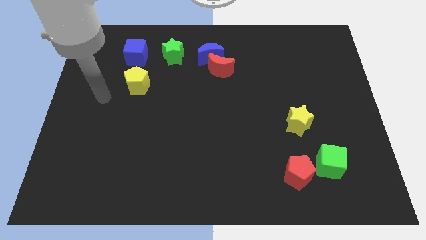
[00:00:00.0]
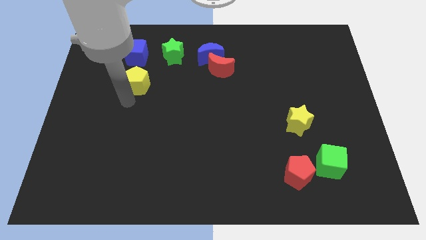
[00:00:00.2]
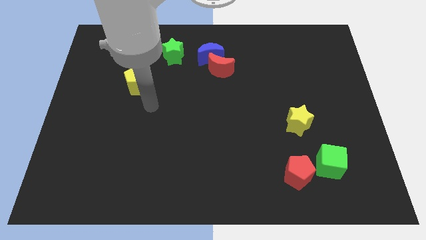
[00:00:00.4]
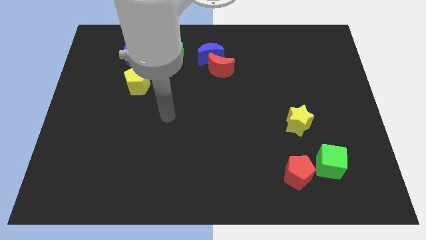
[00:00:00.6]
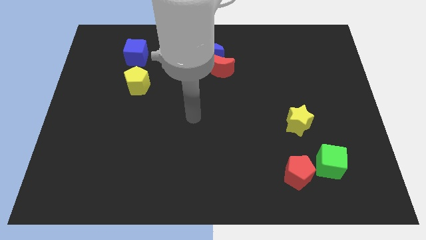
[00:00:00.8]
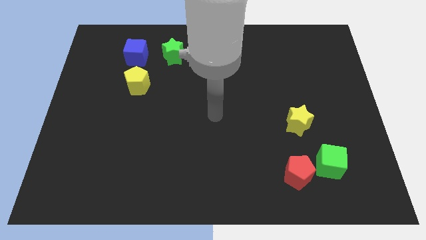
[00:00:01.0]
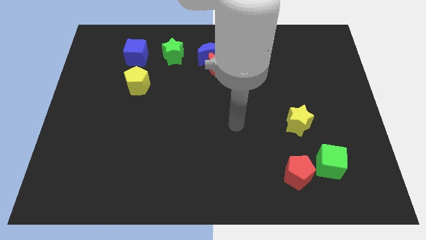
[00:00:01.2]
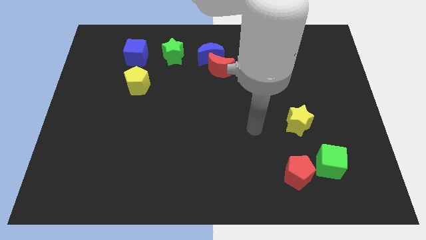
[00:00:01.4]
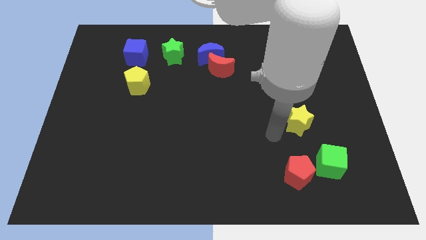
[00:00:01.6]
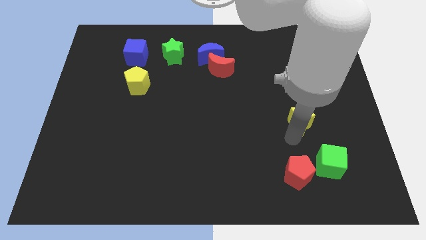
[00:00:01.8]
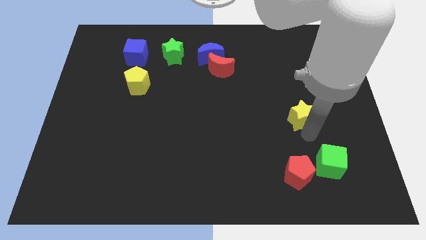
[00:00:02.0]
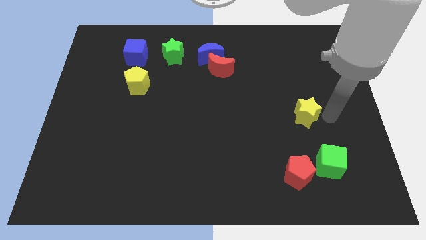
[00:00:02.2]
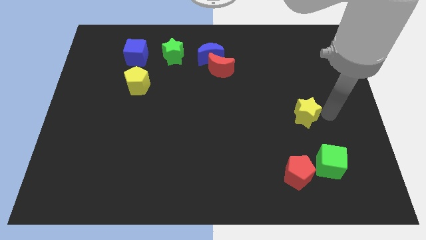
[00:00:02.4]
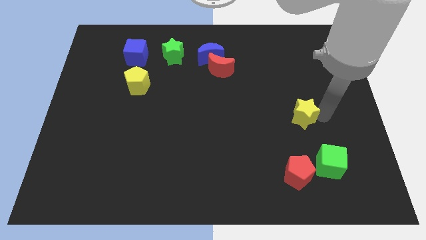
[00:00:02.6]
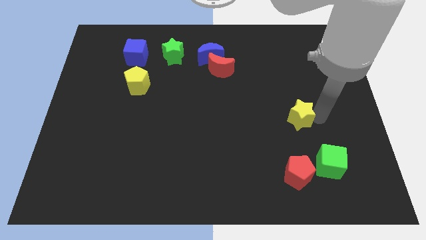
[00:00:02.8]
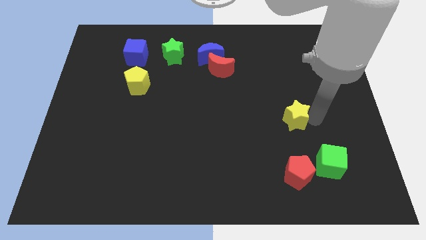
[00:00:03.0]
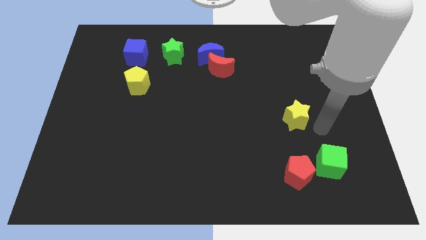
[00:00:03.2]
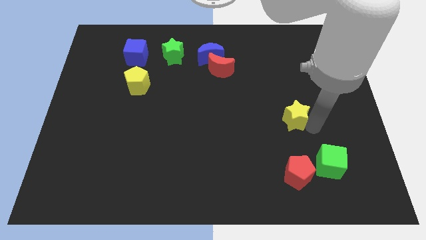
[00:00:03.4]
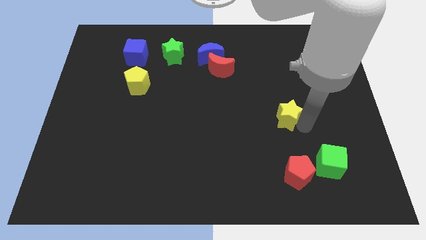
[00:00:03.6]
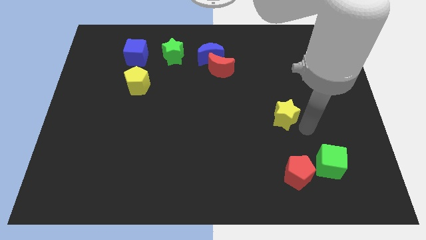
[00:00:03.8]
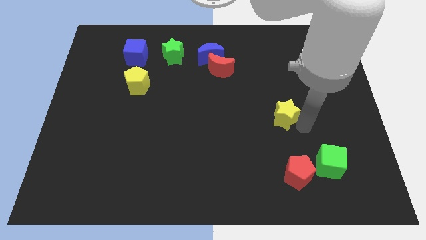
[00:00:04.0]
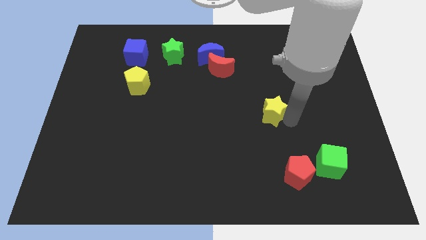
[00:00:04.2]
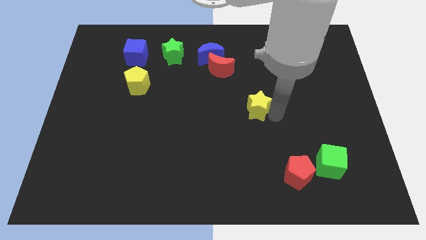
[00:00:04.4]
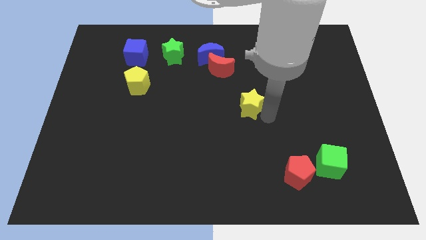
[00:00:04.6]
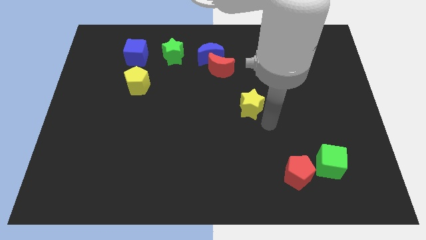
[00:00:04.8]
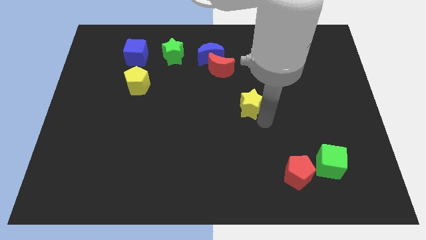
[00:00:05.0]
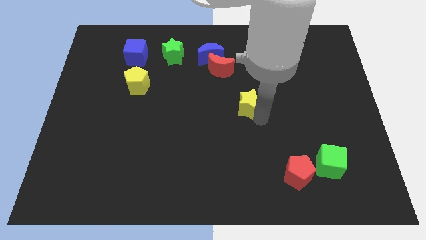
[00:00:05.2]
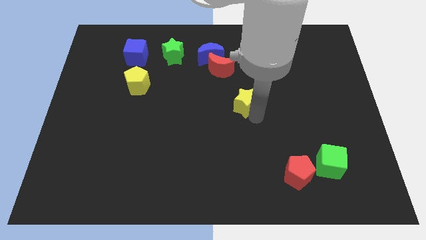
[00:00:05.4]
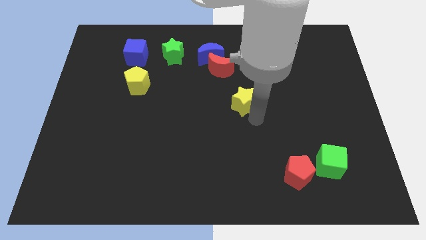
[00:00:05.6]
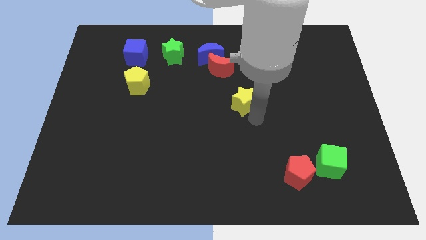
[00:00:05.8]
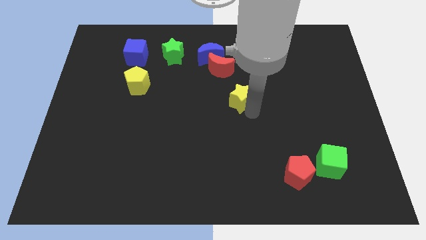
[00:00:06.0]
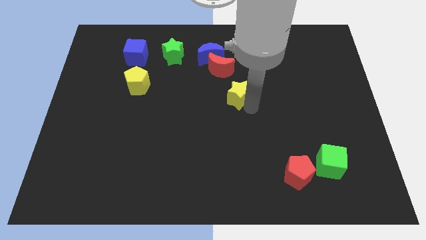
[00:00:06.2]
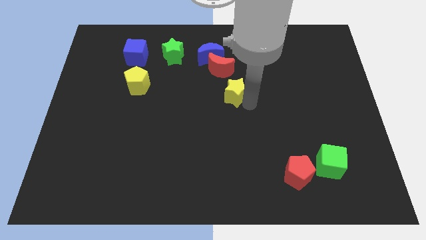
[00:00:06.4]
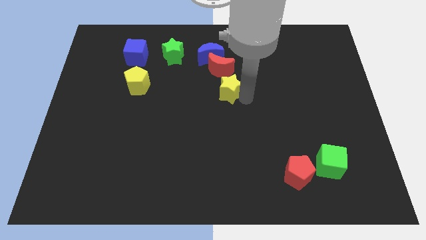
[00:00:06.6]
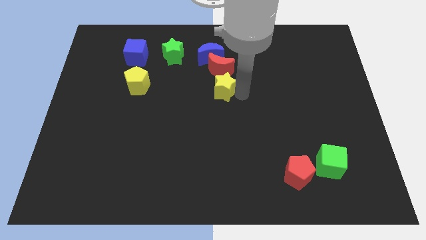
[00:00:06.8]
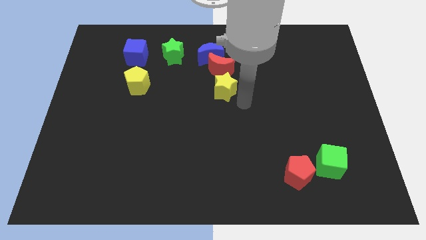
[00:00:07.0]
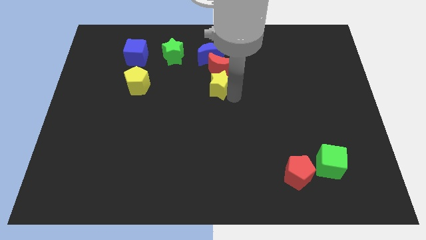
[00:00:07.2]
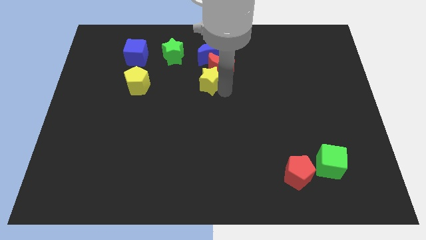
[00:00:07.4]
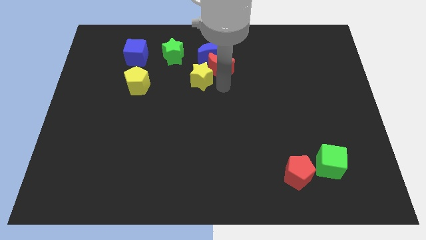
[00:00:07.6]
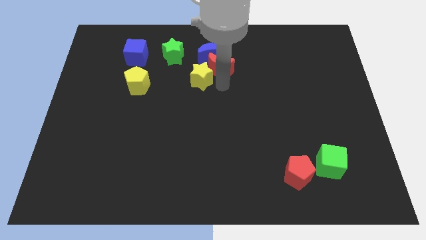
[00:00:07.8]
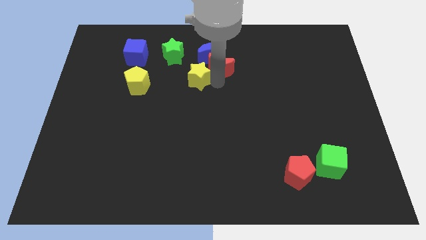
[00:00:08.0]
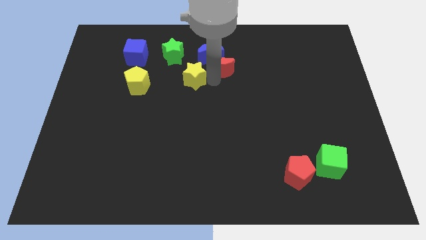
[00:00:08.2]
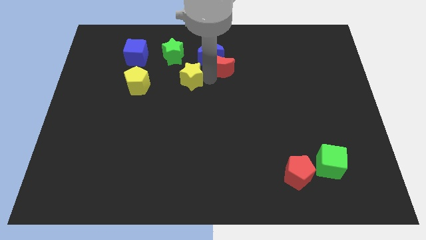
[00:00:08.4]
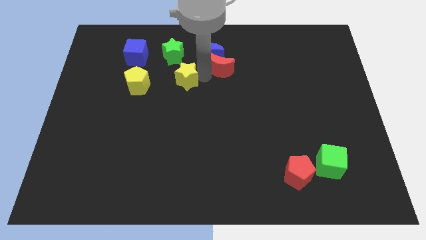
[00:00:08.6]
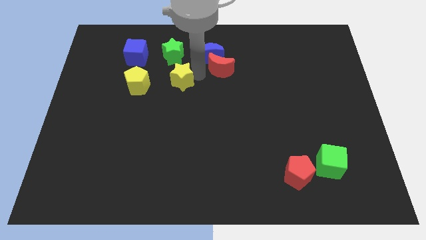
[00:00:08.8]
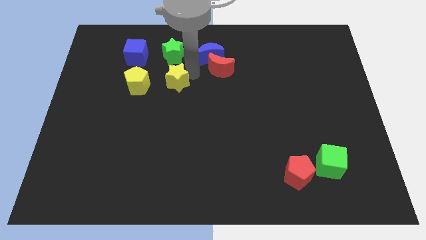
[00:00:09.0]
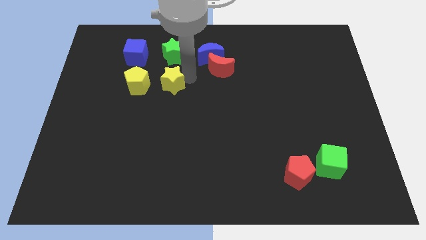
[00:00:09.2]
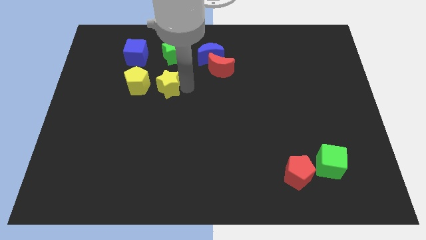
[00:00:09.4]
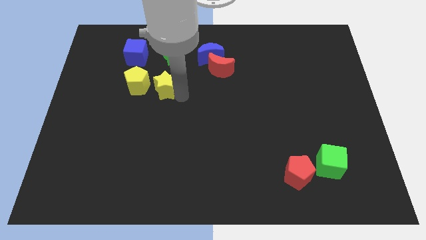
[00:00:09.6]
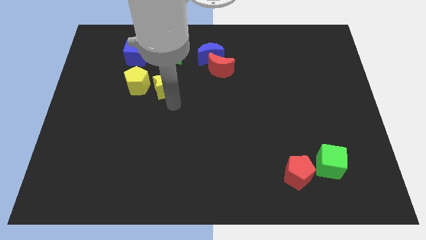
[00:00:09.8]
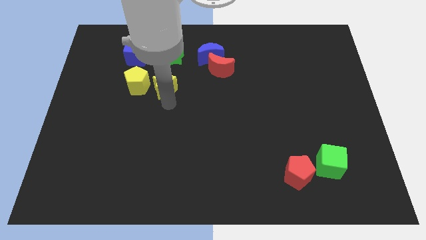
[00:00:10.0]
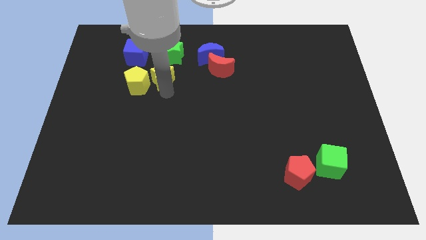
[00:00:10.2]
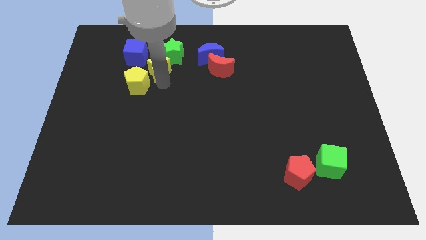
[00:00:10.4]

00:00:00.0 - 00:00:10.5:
push the yellow star to the left of the blue moon

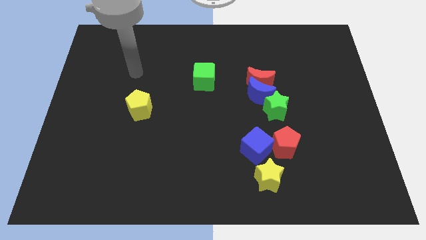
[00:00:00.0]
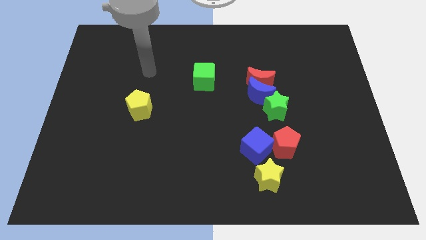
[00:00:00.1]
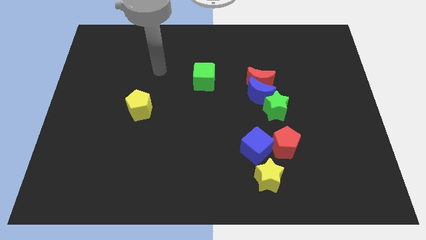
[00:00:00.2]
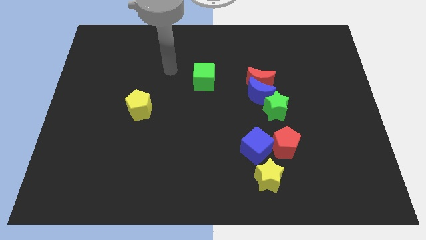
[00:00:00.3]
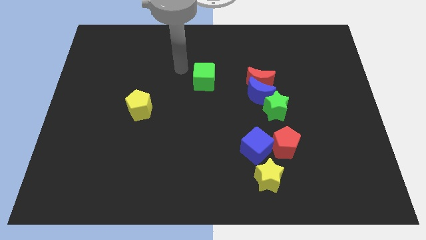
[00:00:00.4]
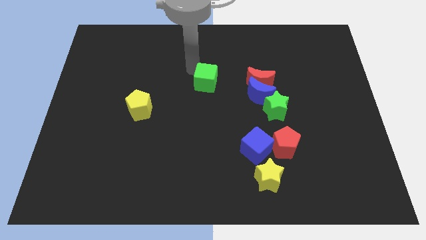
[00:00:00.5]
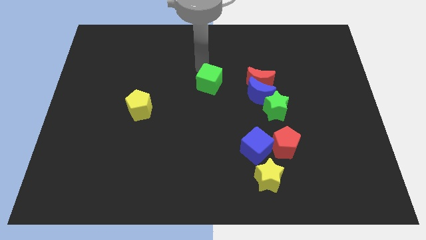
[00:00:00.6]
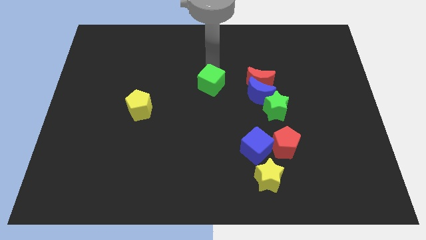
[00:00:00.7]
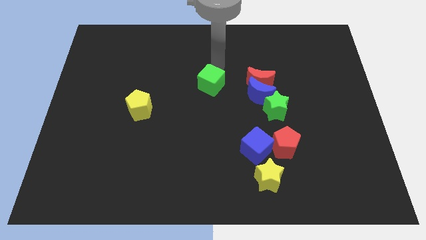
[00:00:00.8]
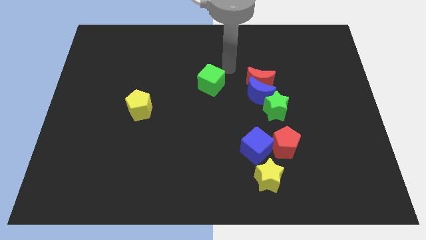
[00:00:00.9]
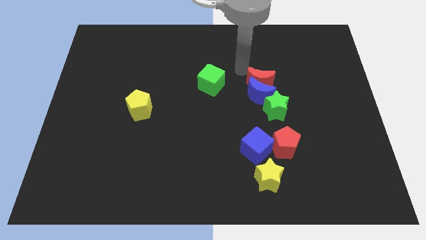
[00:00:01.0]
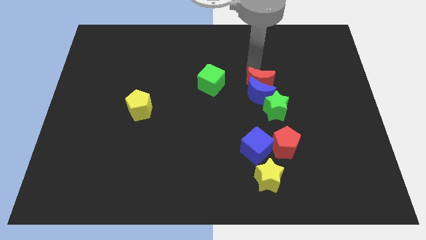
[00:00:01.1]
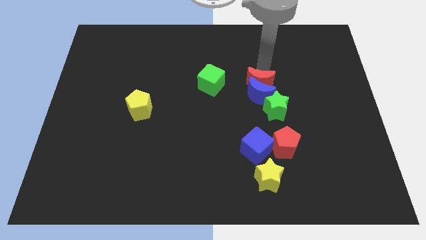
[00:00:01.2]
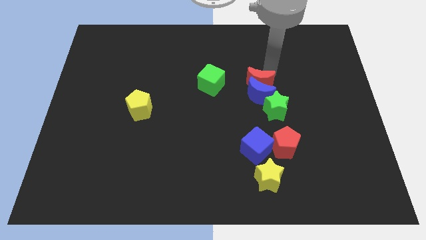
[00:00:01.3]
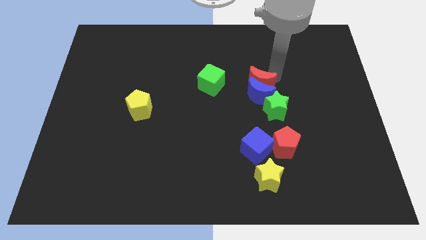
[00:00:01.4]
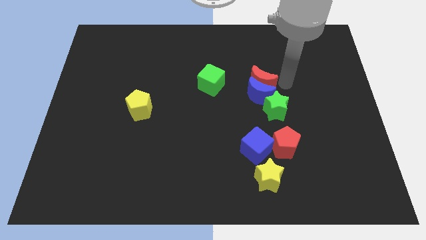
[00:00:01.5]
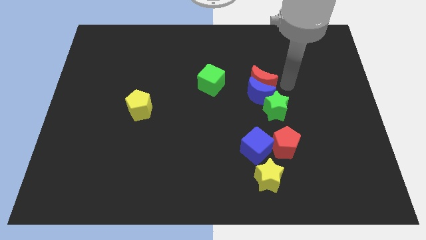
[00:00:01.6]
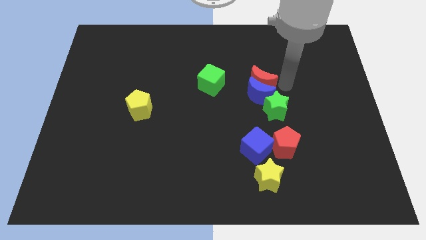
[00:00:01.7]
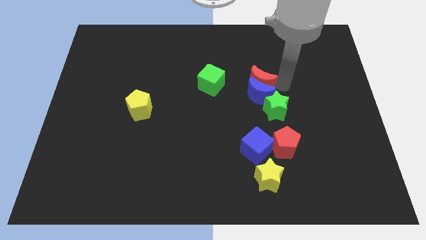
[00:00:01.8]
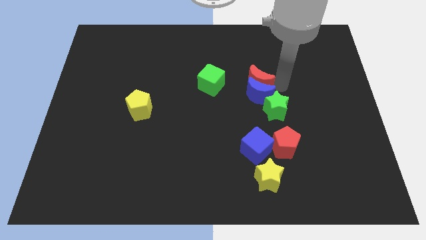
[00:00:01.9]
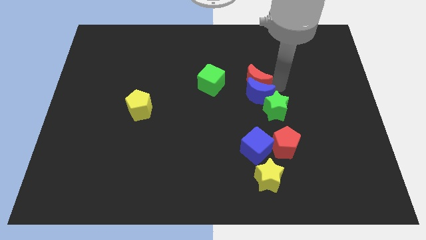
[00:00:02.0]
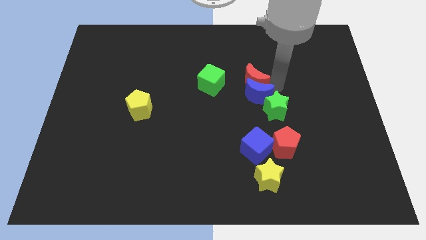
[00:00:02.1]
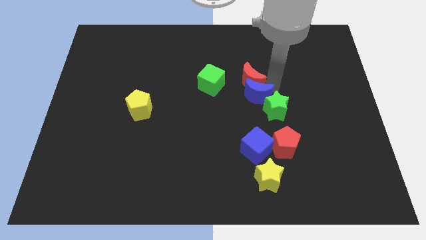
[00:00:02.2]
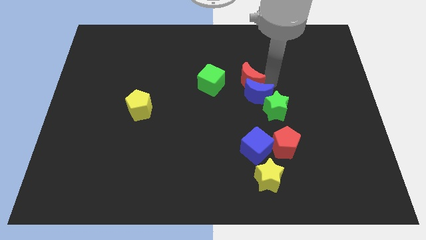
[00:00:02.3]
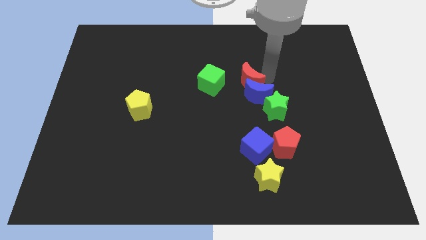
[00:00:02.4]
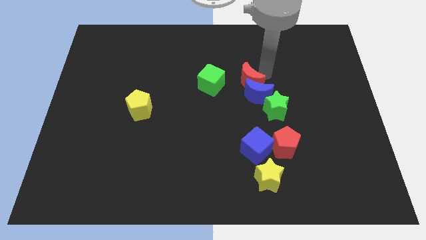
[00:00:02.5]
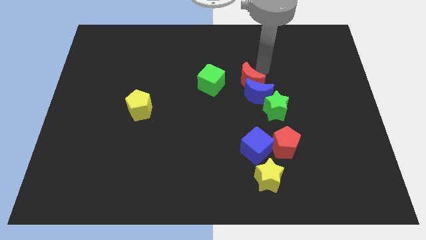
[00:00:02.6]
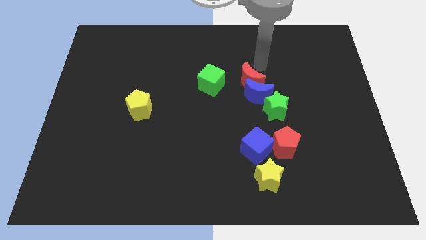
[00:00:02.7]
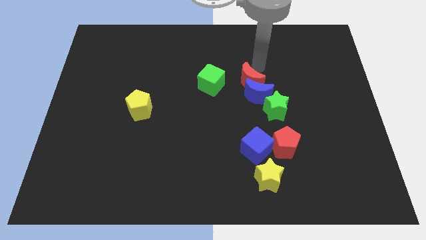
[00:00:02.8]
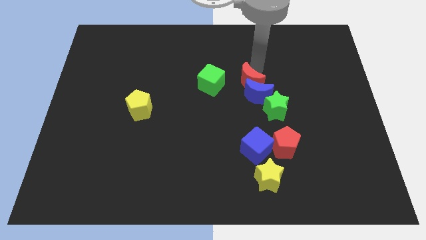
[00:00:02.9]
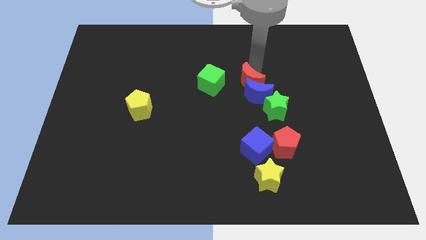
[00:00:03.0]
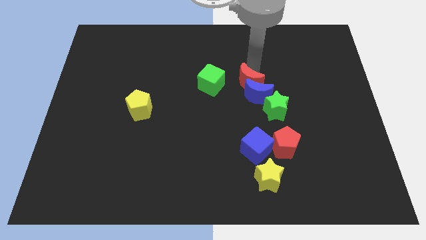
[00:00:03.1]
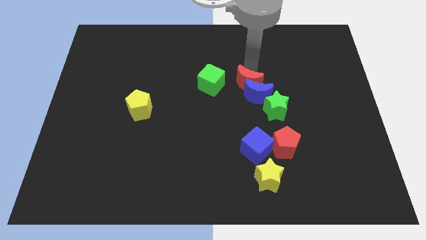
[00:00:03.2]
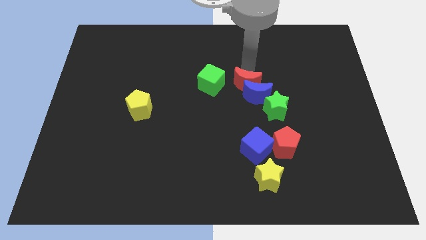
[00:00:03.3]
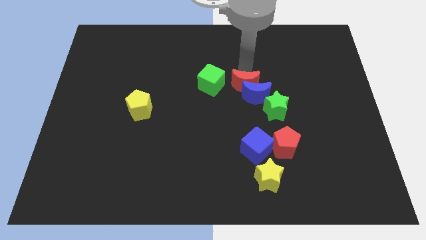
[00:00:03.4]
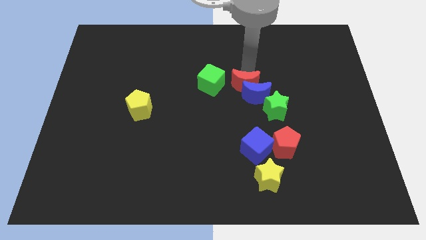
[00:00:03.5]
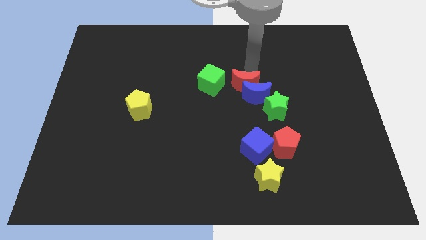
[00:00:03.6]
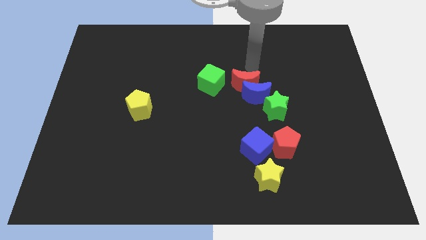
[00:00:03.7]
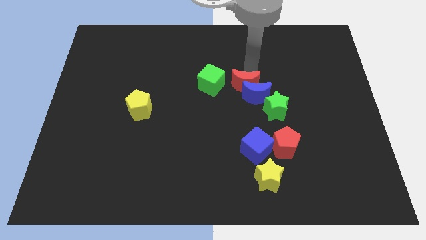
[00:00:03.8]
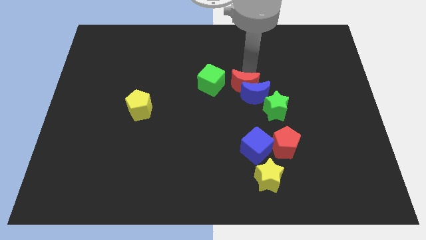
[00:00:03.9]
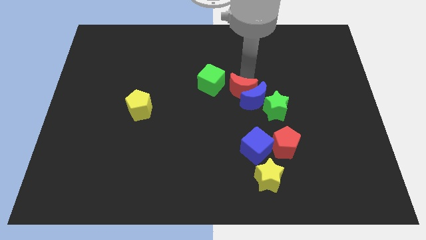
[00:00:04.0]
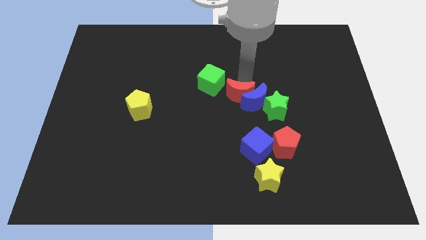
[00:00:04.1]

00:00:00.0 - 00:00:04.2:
put the red moon to the top of the blue cube
